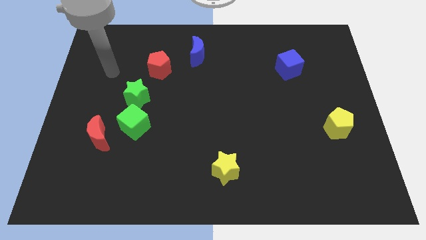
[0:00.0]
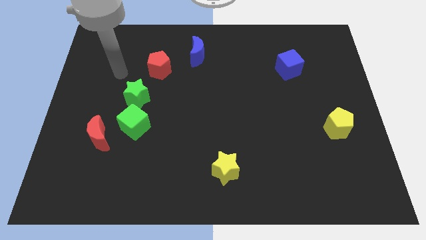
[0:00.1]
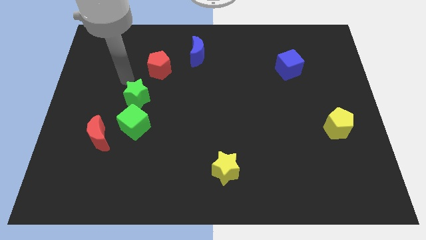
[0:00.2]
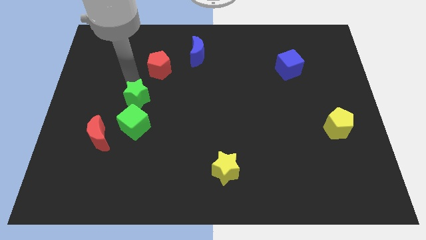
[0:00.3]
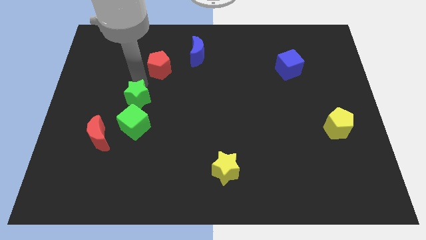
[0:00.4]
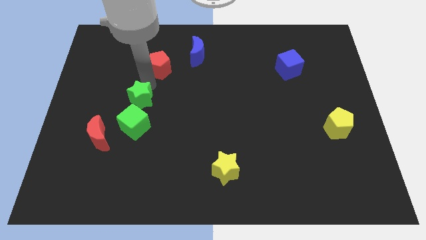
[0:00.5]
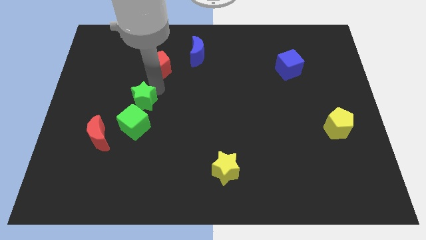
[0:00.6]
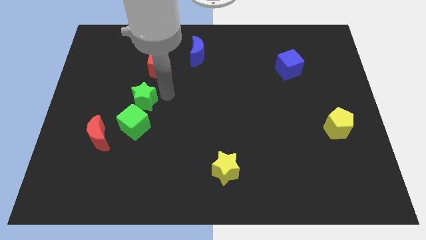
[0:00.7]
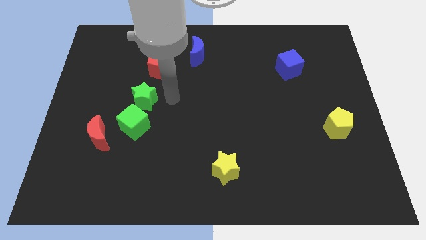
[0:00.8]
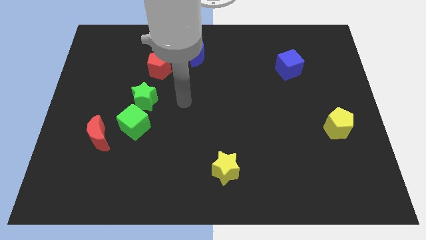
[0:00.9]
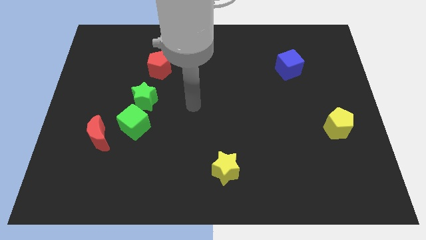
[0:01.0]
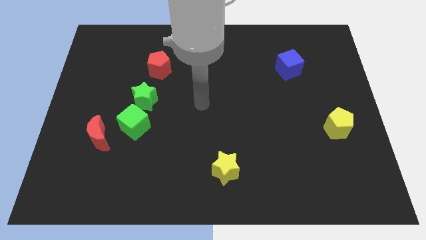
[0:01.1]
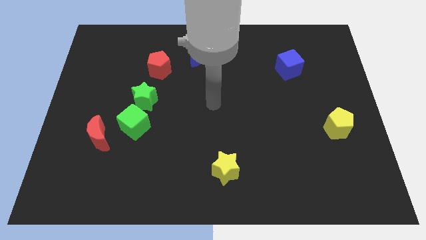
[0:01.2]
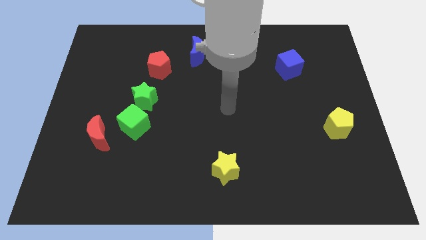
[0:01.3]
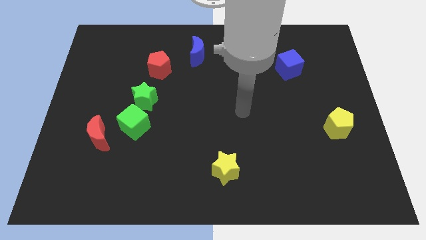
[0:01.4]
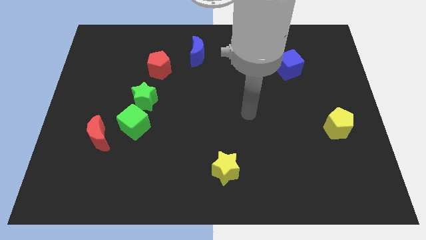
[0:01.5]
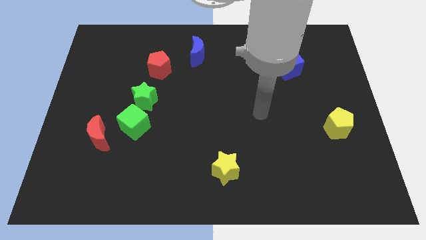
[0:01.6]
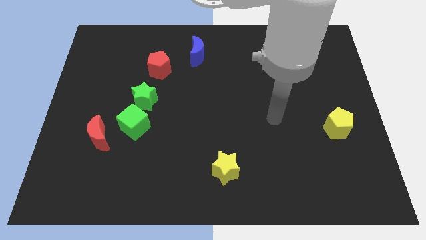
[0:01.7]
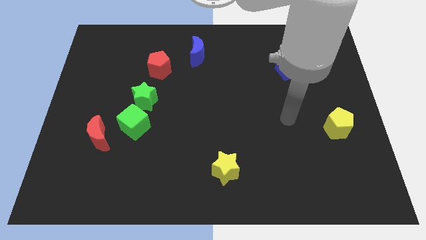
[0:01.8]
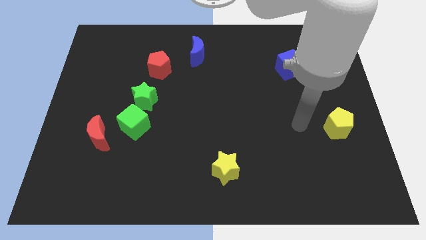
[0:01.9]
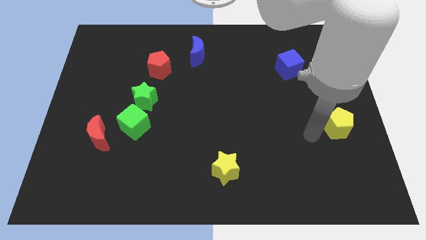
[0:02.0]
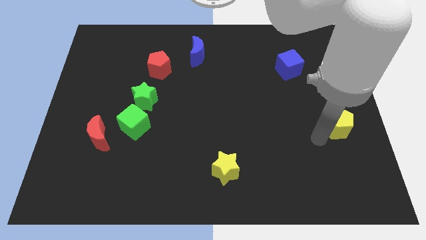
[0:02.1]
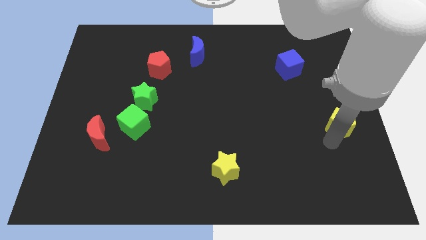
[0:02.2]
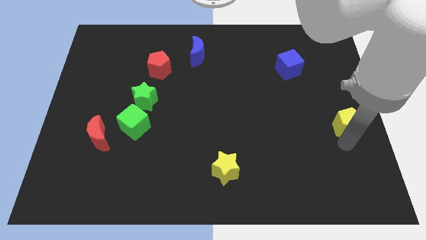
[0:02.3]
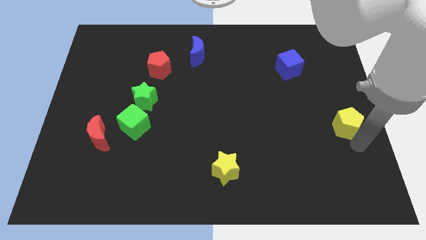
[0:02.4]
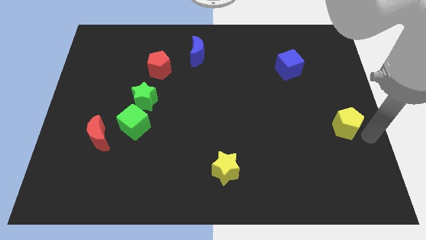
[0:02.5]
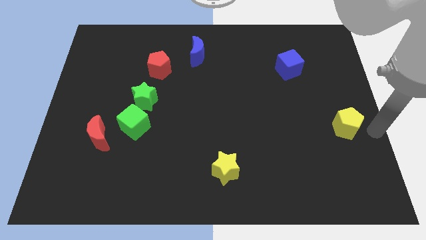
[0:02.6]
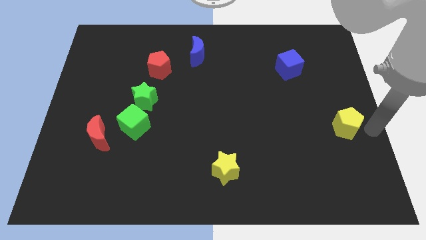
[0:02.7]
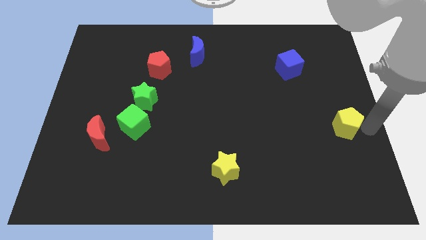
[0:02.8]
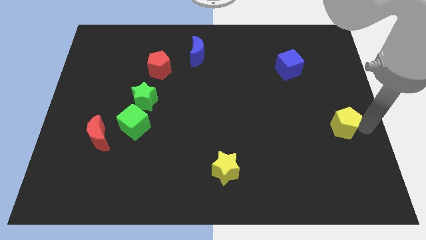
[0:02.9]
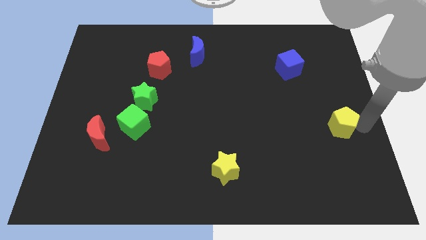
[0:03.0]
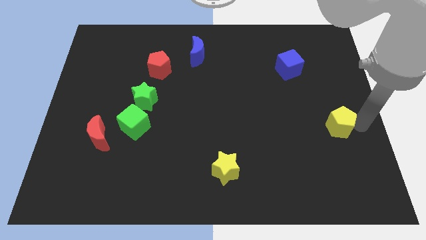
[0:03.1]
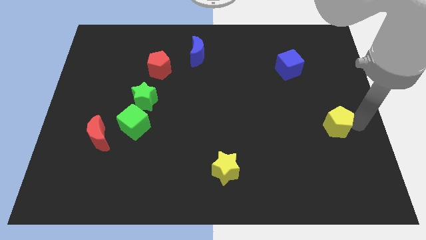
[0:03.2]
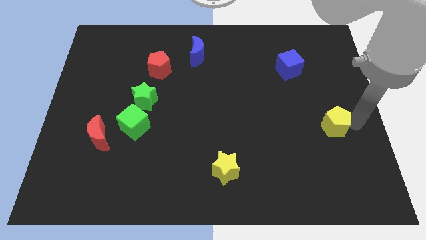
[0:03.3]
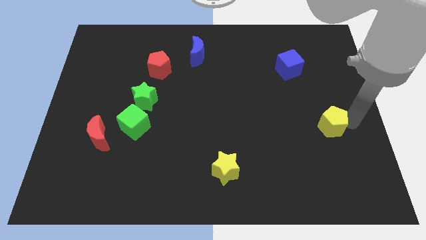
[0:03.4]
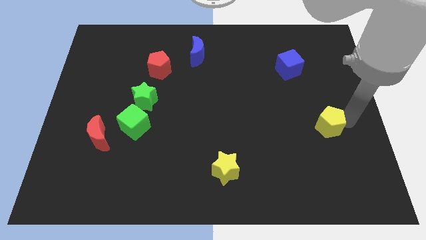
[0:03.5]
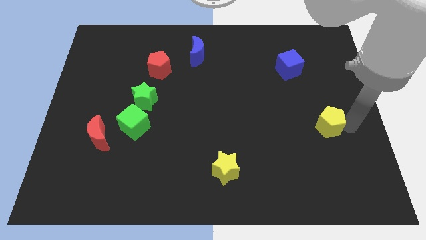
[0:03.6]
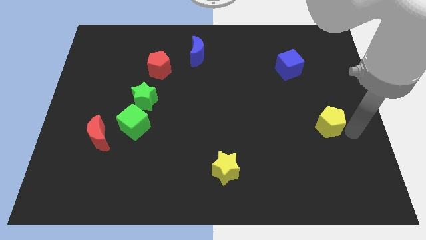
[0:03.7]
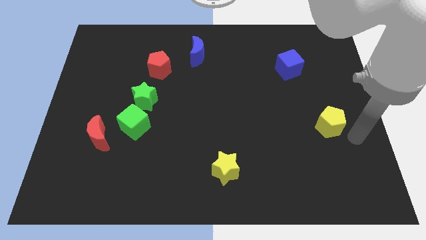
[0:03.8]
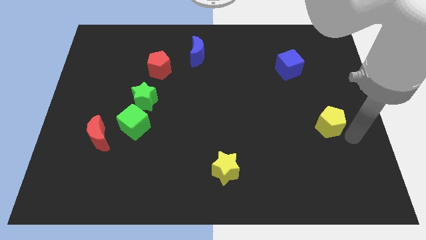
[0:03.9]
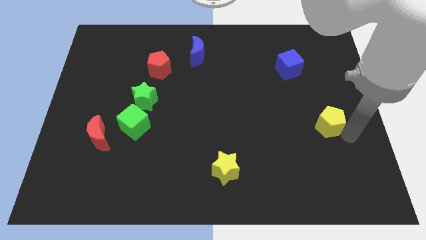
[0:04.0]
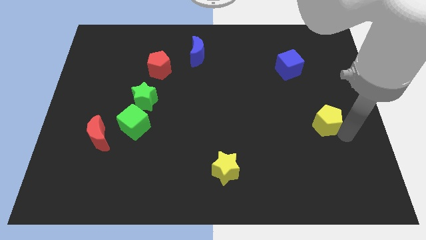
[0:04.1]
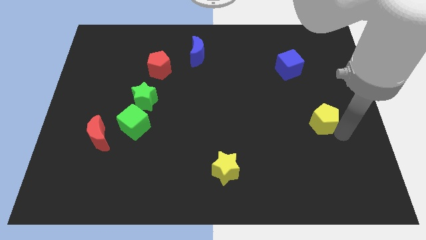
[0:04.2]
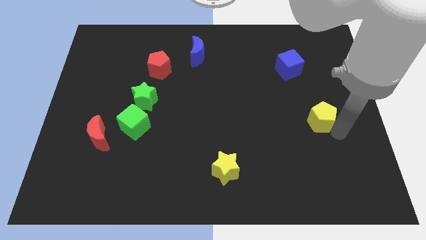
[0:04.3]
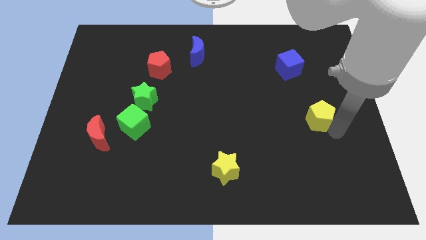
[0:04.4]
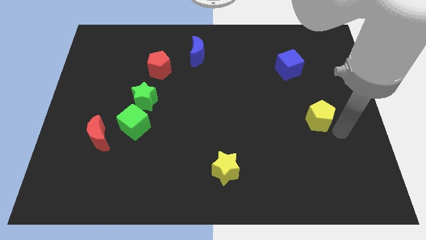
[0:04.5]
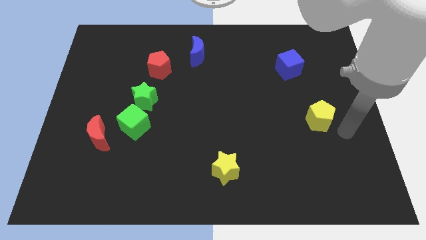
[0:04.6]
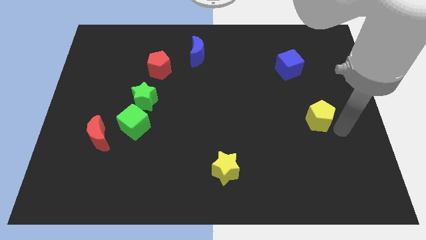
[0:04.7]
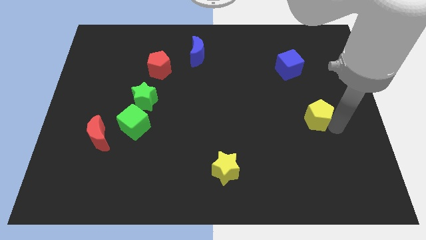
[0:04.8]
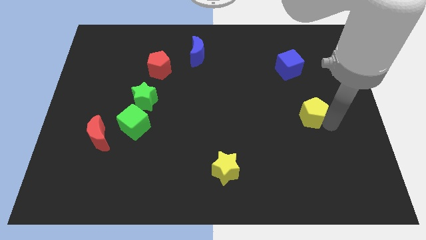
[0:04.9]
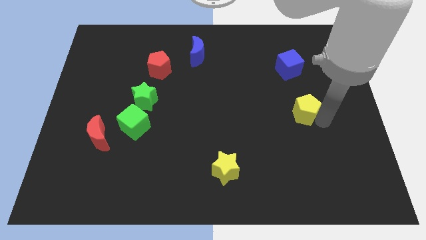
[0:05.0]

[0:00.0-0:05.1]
slide the yellow pentagon diagonally upwards and left a bit

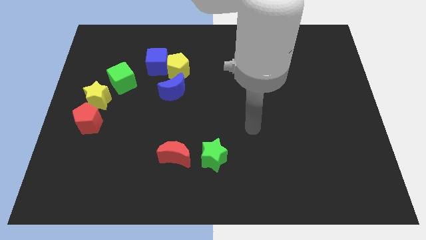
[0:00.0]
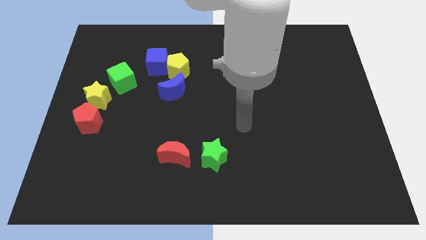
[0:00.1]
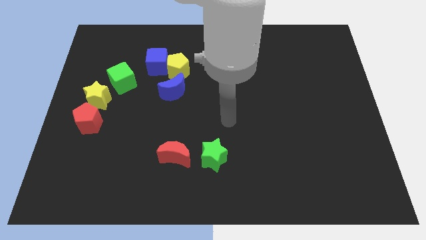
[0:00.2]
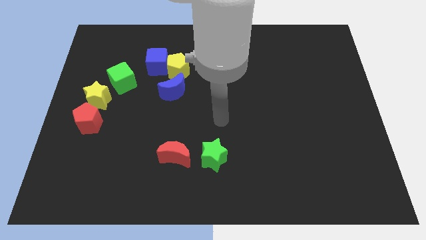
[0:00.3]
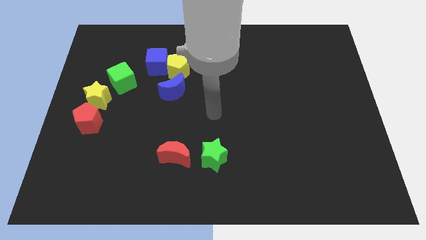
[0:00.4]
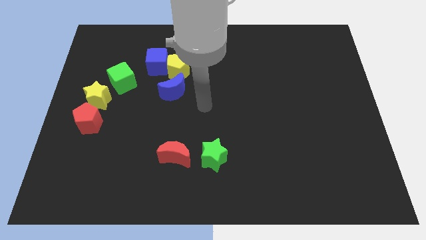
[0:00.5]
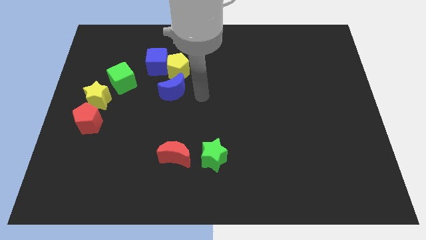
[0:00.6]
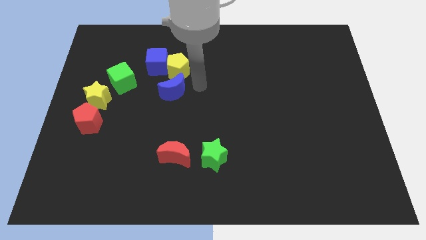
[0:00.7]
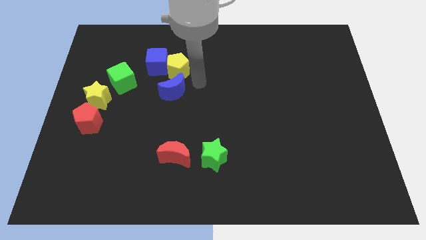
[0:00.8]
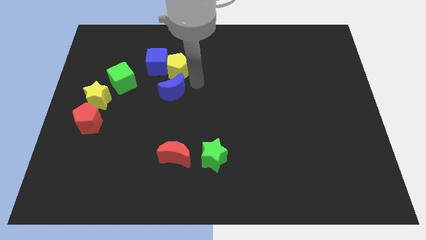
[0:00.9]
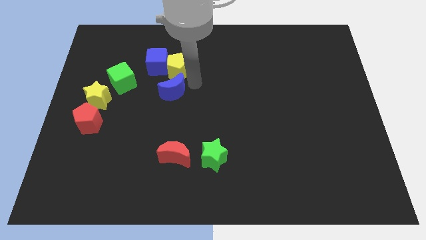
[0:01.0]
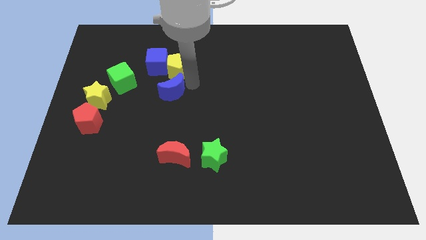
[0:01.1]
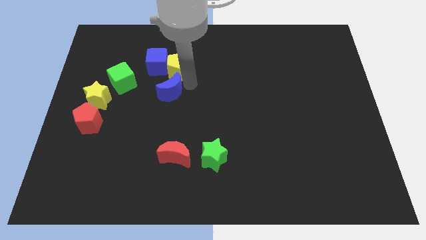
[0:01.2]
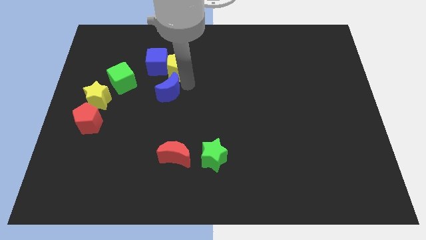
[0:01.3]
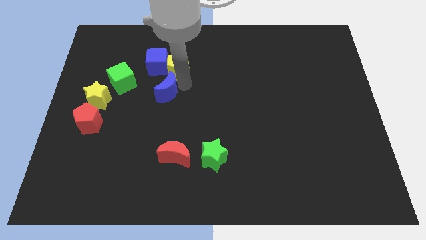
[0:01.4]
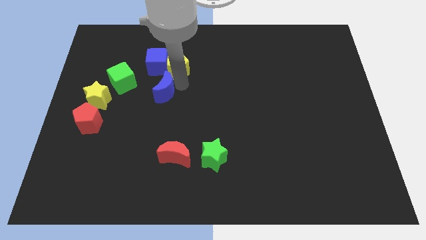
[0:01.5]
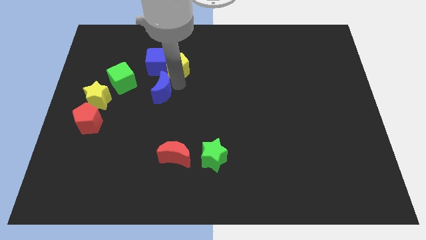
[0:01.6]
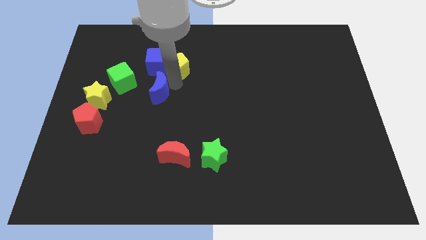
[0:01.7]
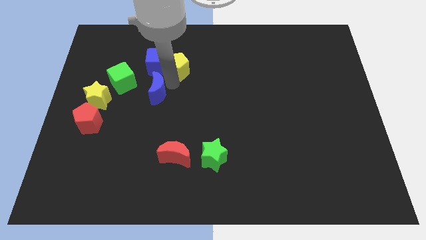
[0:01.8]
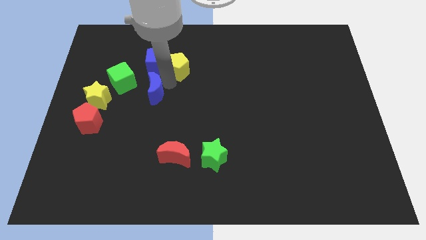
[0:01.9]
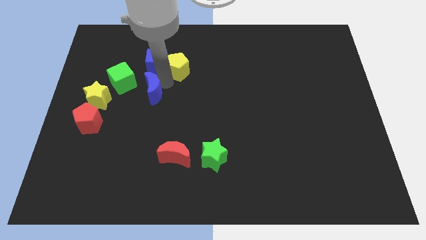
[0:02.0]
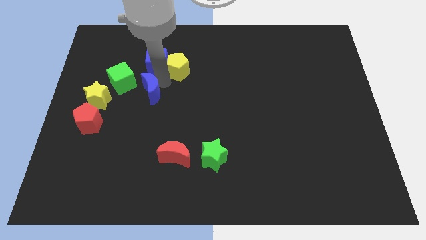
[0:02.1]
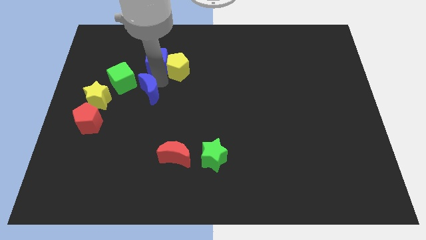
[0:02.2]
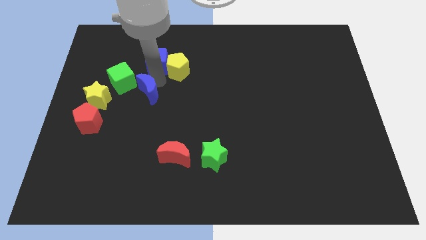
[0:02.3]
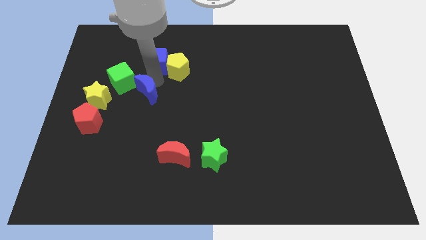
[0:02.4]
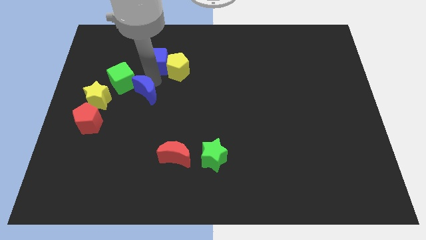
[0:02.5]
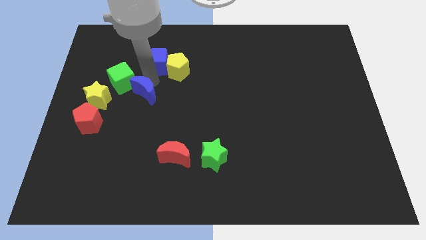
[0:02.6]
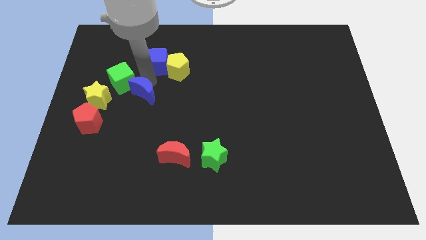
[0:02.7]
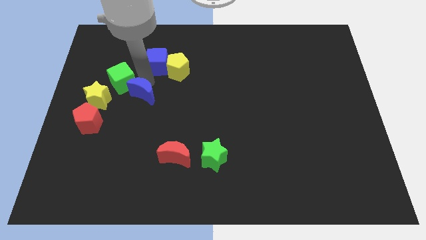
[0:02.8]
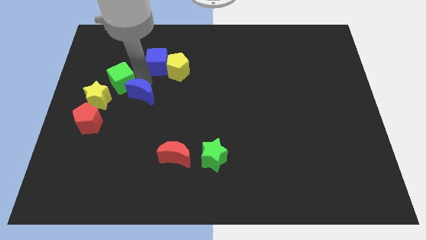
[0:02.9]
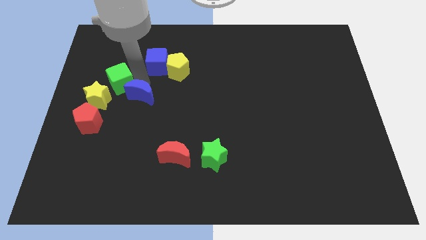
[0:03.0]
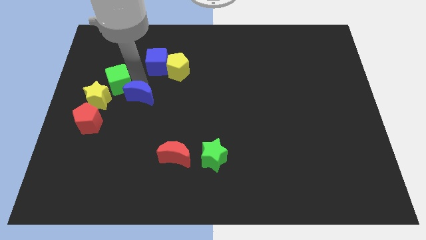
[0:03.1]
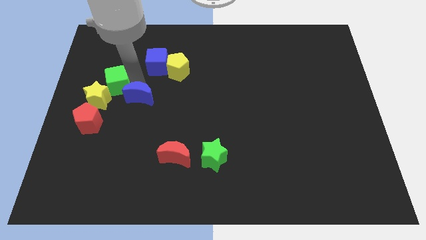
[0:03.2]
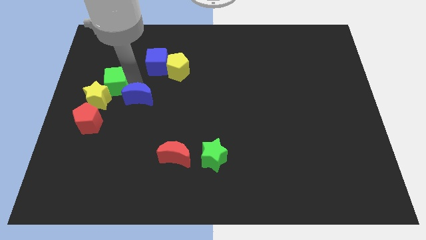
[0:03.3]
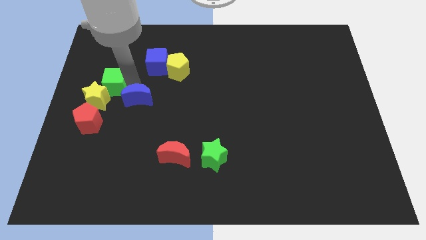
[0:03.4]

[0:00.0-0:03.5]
push the blue moon downwards and to the left diagonally slightly
